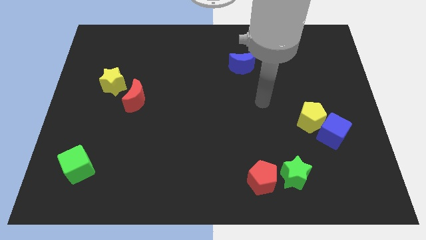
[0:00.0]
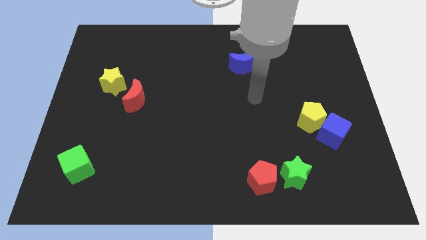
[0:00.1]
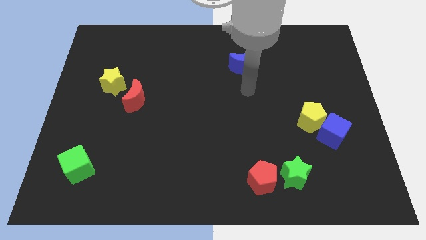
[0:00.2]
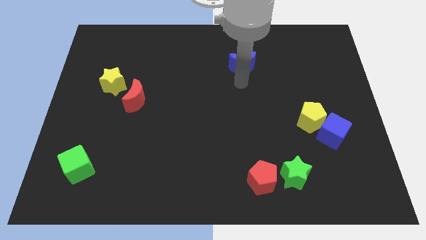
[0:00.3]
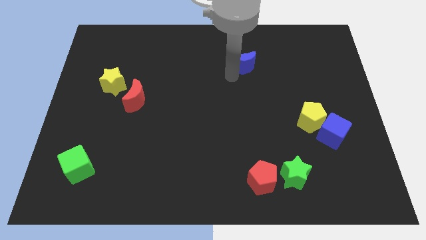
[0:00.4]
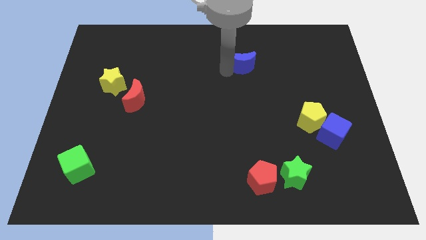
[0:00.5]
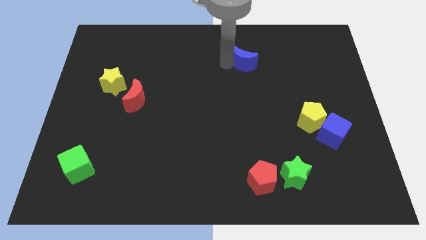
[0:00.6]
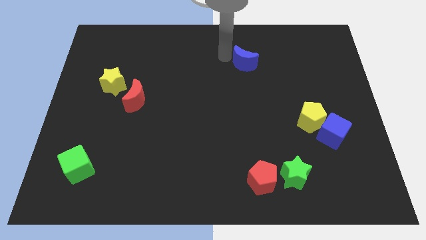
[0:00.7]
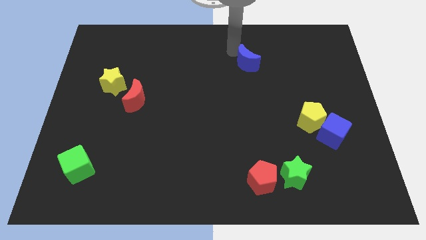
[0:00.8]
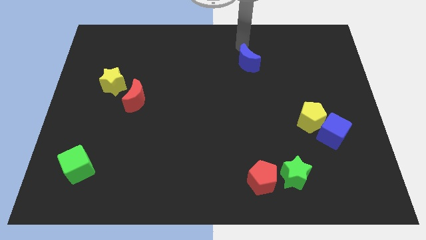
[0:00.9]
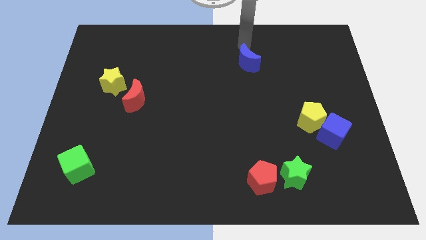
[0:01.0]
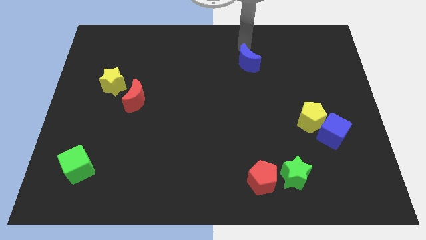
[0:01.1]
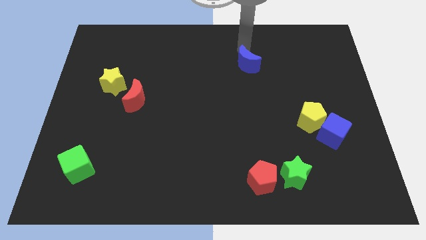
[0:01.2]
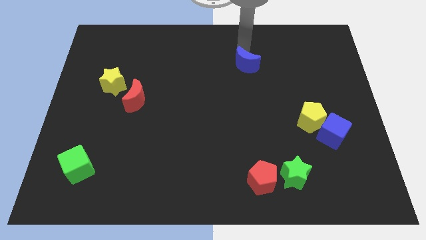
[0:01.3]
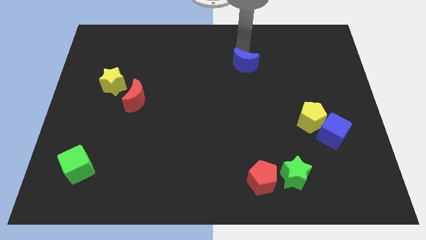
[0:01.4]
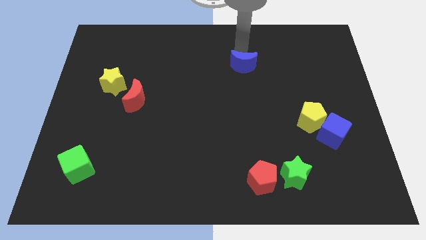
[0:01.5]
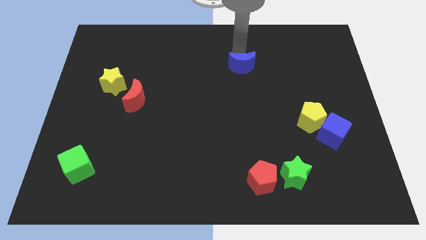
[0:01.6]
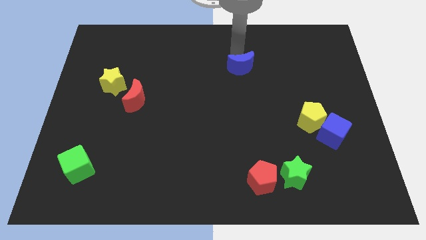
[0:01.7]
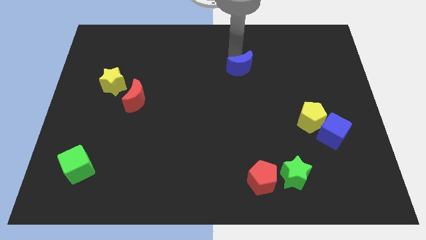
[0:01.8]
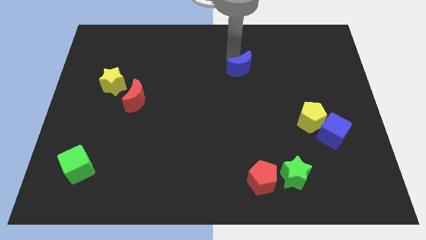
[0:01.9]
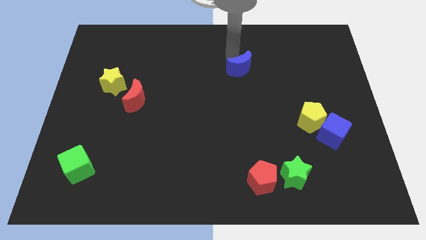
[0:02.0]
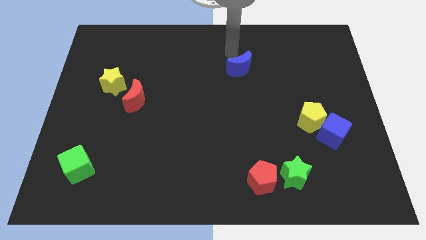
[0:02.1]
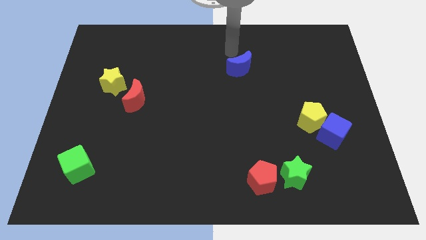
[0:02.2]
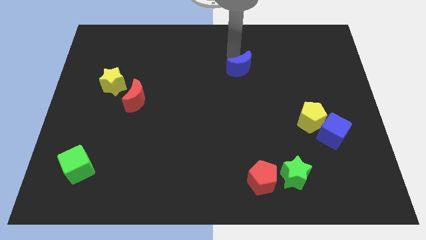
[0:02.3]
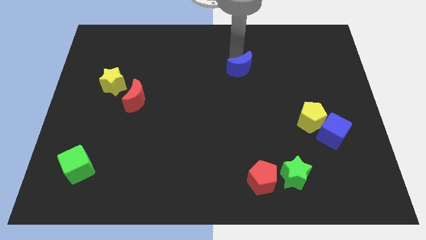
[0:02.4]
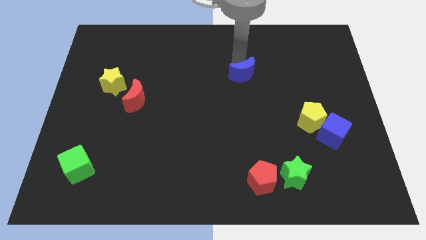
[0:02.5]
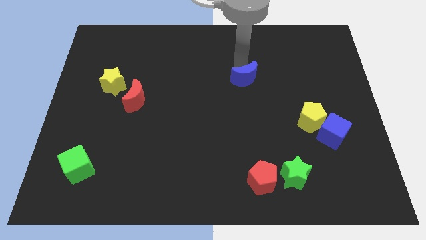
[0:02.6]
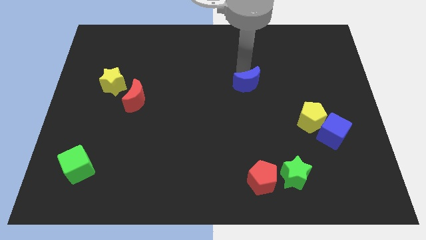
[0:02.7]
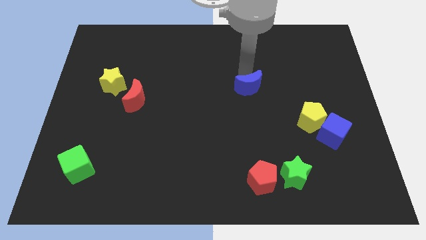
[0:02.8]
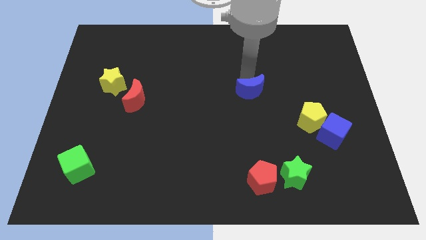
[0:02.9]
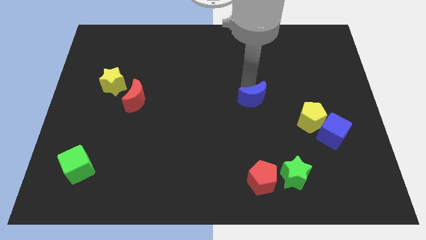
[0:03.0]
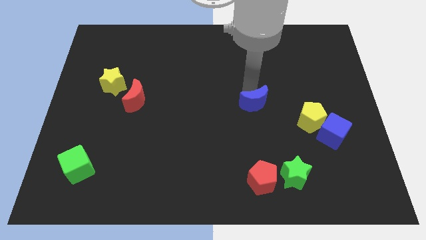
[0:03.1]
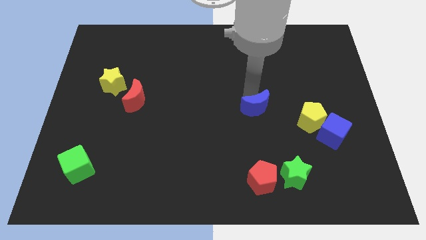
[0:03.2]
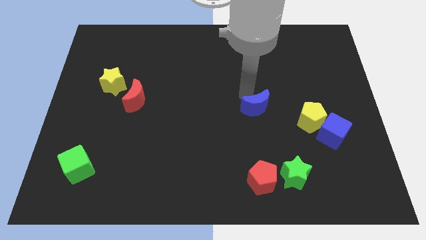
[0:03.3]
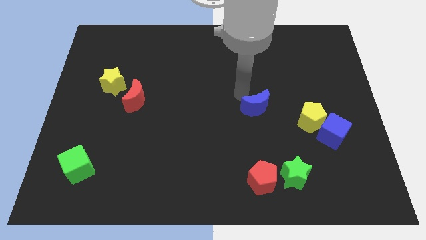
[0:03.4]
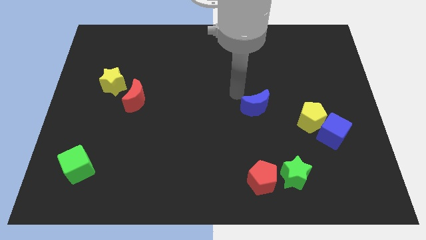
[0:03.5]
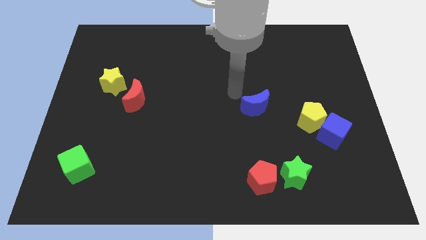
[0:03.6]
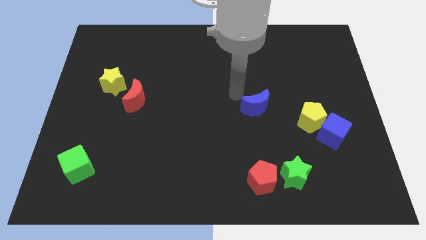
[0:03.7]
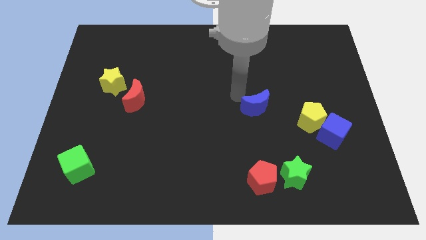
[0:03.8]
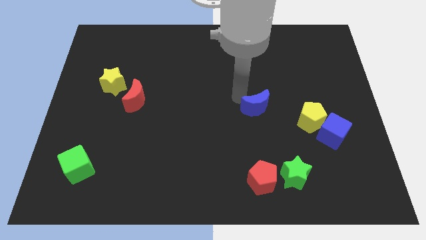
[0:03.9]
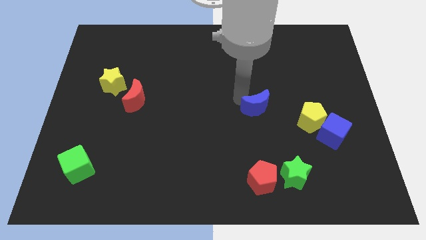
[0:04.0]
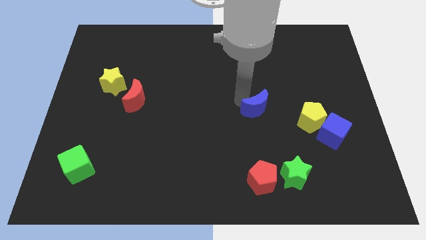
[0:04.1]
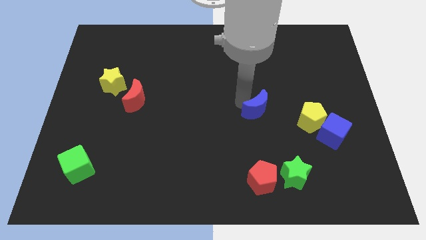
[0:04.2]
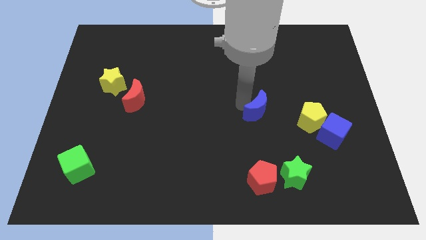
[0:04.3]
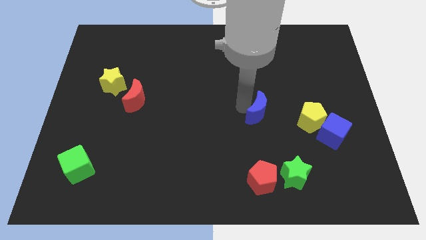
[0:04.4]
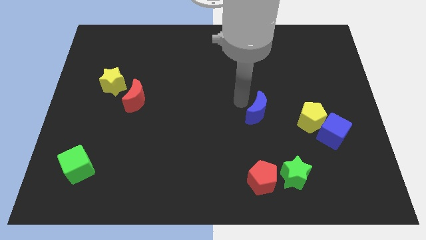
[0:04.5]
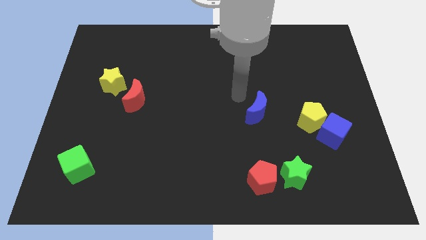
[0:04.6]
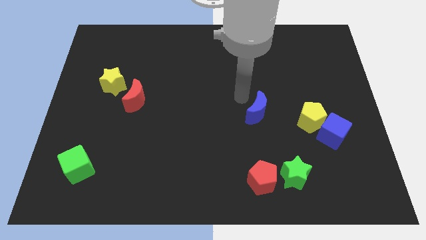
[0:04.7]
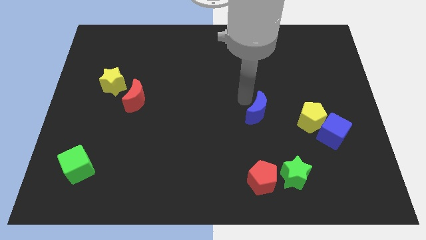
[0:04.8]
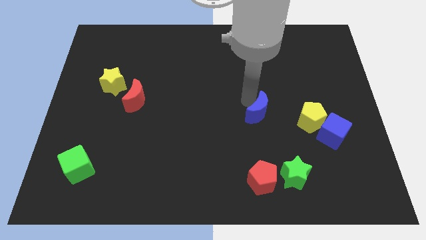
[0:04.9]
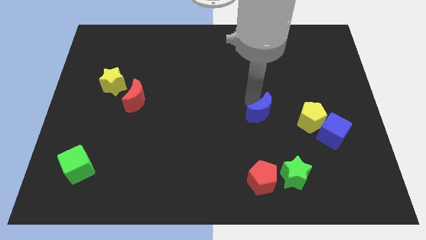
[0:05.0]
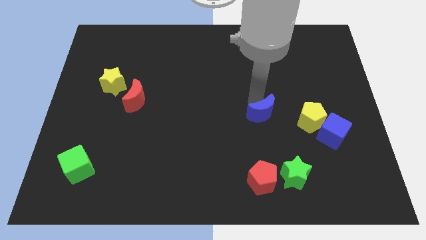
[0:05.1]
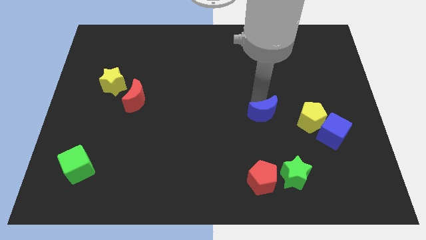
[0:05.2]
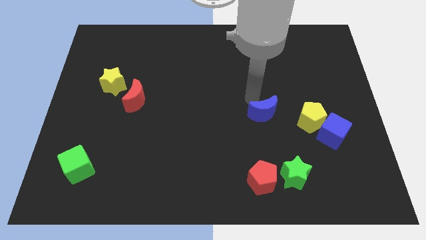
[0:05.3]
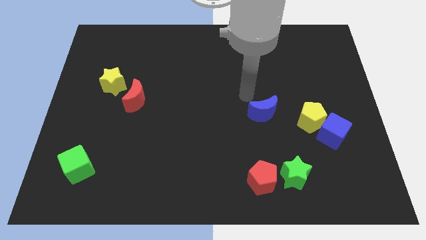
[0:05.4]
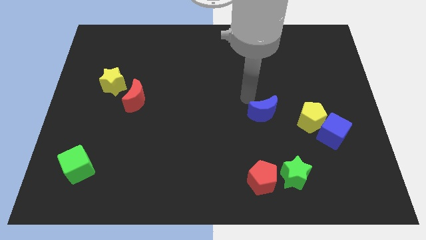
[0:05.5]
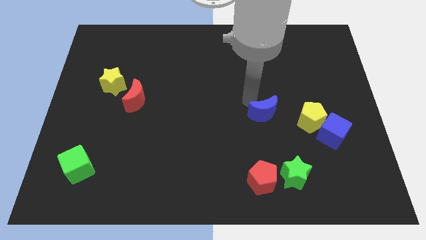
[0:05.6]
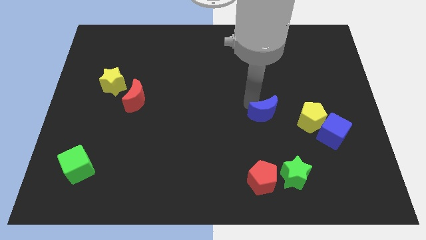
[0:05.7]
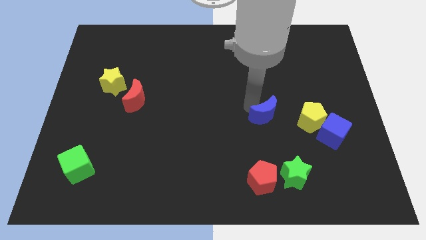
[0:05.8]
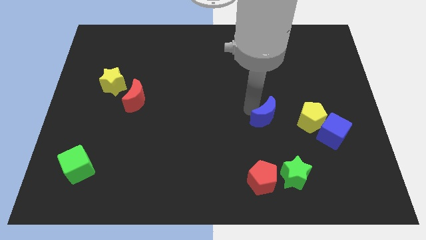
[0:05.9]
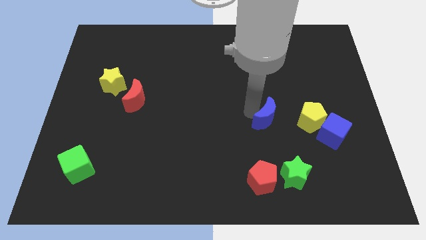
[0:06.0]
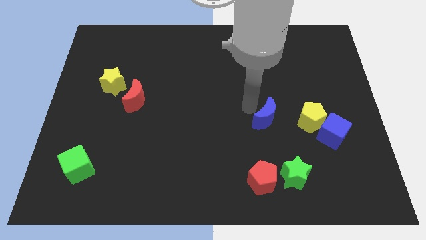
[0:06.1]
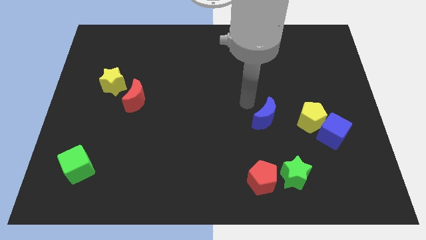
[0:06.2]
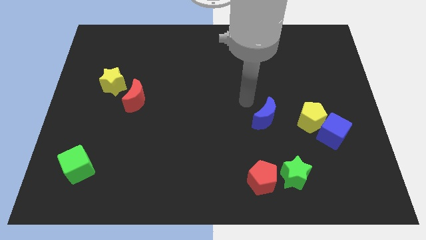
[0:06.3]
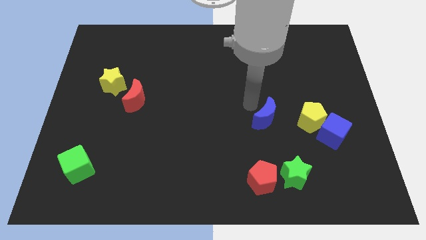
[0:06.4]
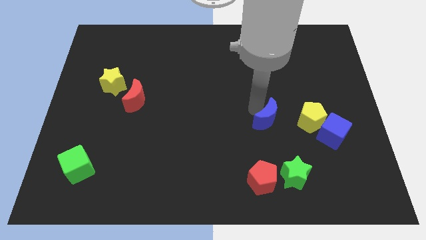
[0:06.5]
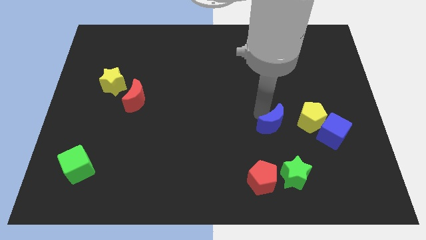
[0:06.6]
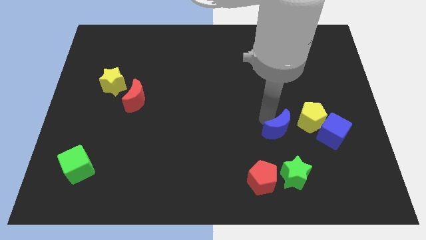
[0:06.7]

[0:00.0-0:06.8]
push the blue moon diagonally down and to the left of the yellow pentagon
